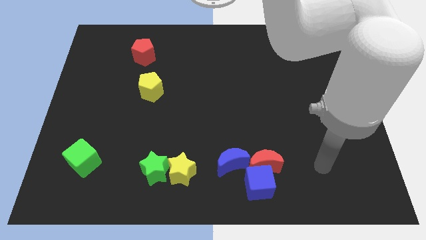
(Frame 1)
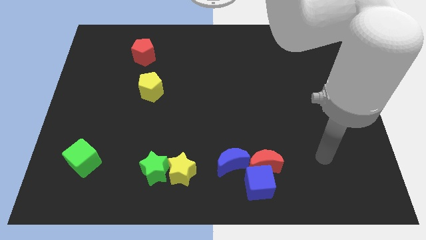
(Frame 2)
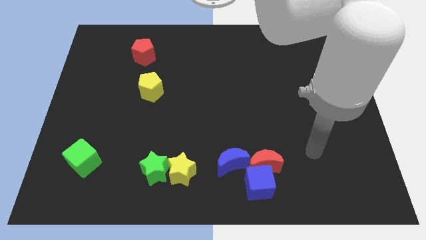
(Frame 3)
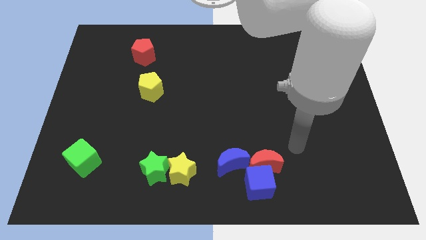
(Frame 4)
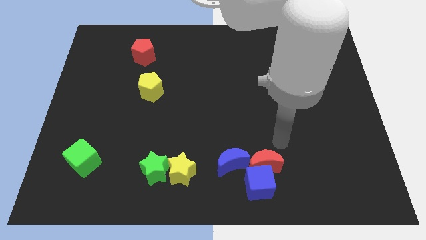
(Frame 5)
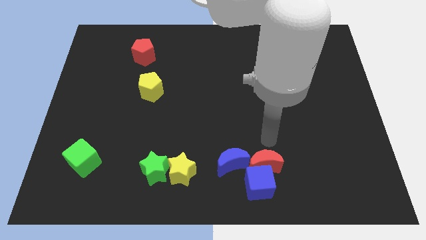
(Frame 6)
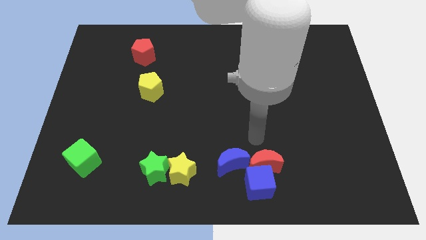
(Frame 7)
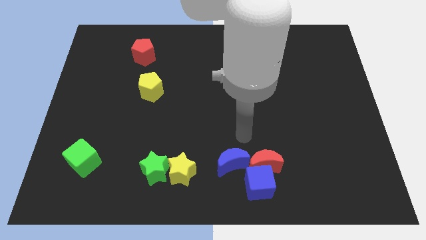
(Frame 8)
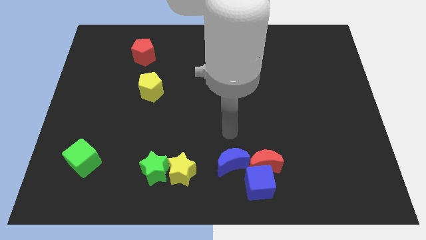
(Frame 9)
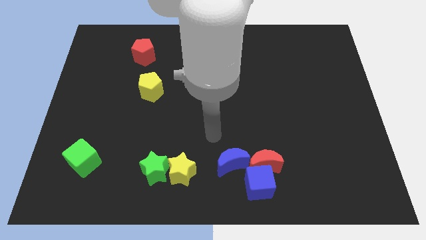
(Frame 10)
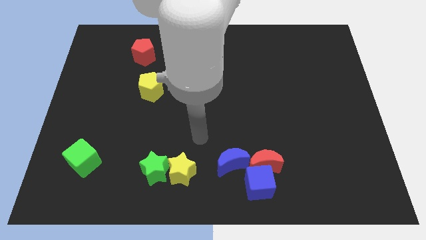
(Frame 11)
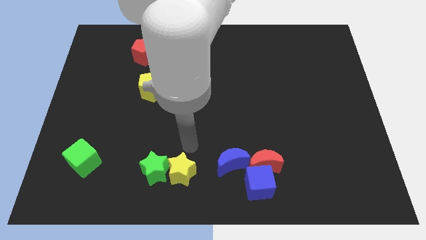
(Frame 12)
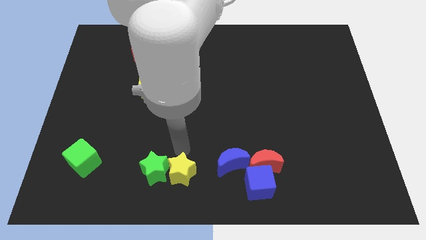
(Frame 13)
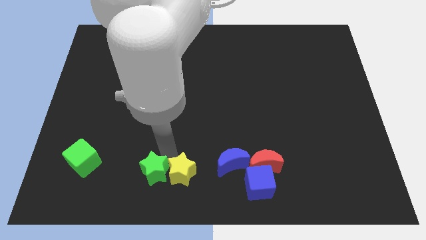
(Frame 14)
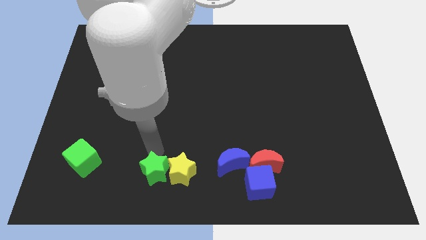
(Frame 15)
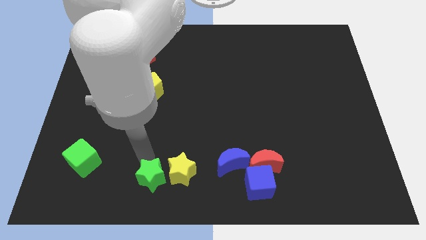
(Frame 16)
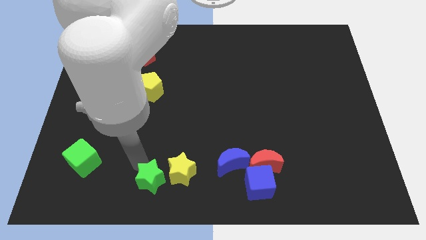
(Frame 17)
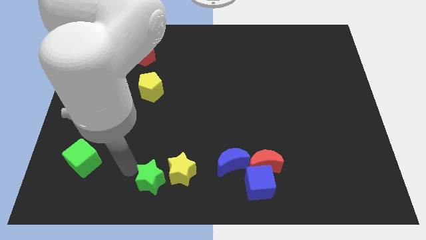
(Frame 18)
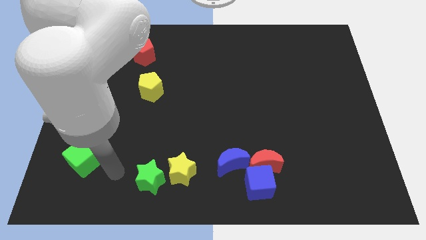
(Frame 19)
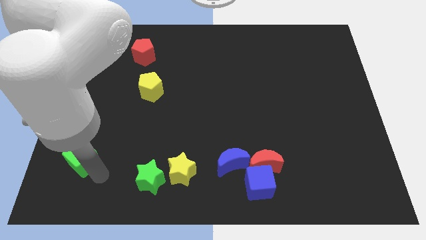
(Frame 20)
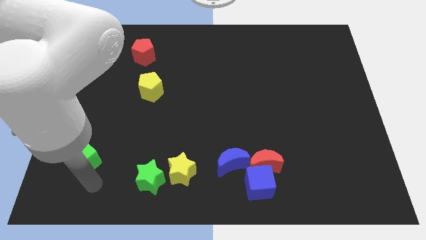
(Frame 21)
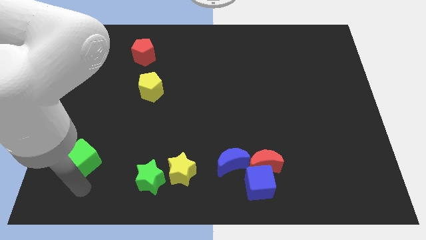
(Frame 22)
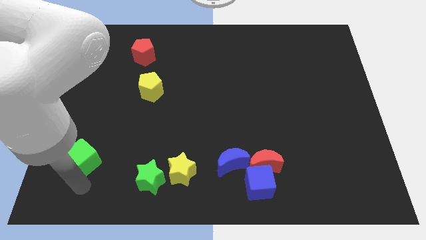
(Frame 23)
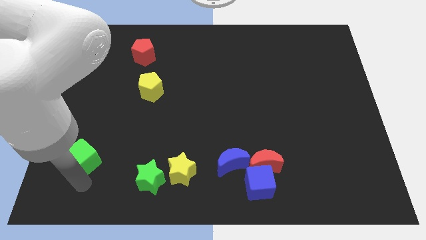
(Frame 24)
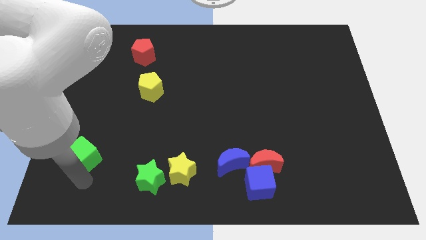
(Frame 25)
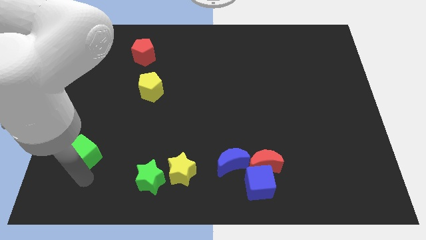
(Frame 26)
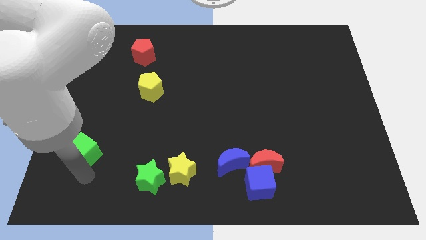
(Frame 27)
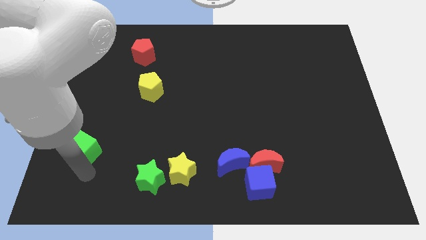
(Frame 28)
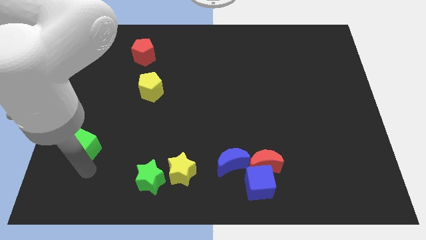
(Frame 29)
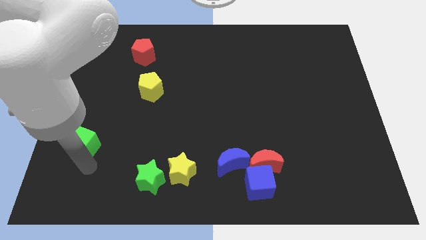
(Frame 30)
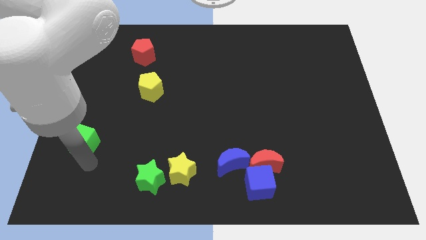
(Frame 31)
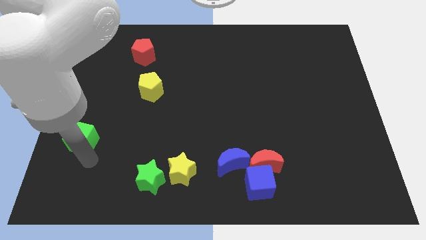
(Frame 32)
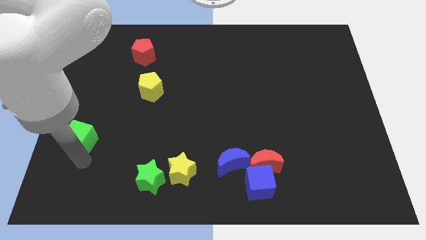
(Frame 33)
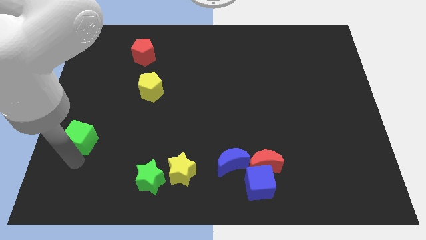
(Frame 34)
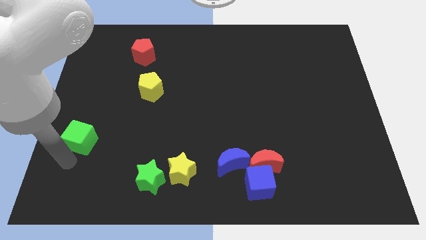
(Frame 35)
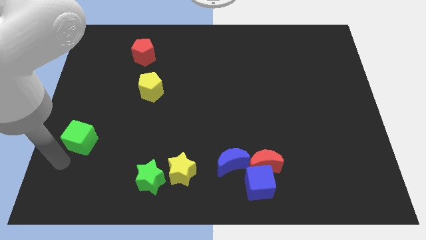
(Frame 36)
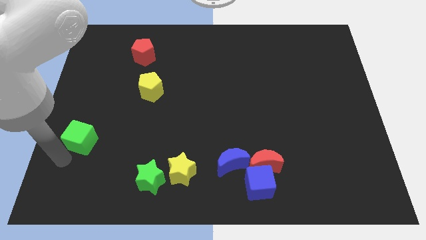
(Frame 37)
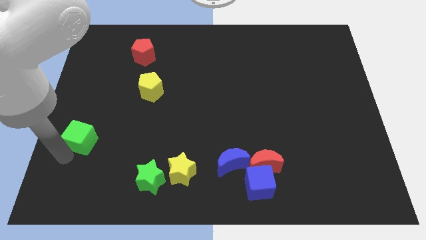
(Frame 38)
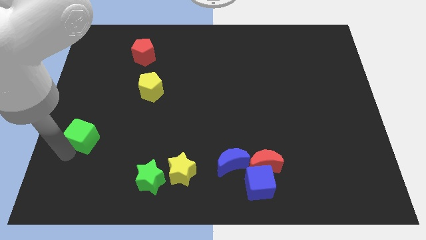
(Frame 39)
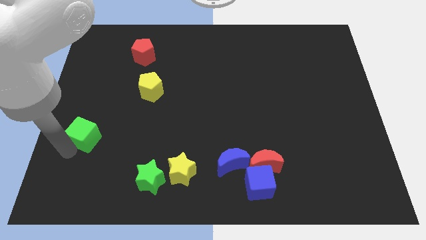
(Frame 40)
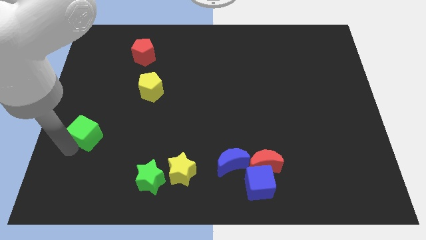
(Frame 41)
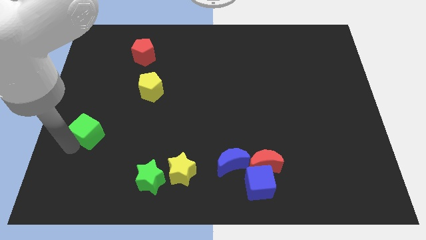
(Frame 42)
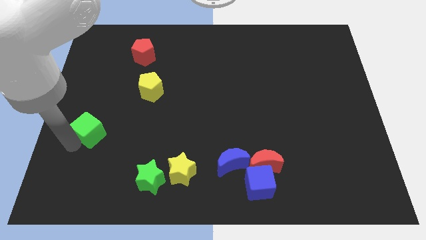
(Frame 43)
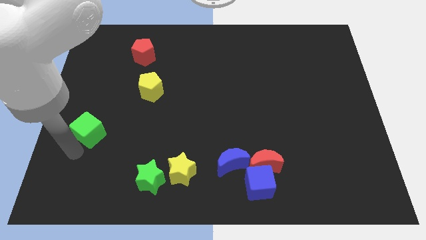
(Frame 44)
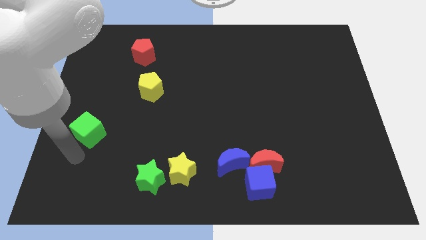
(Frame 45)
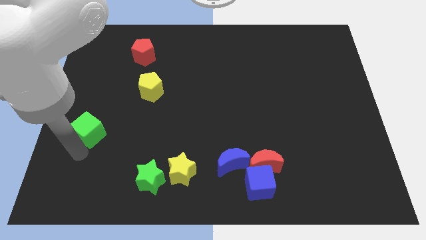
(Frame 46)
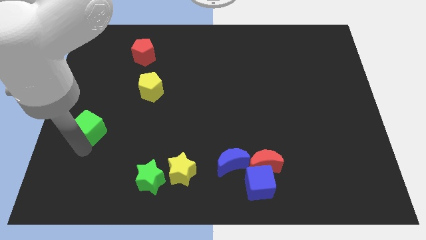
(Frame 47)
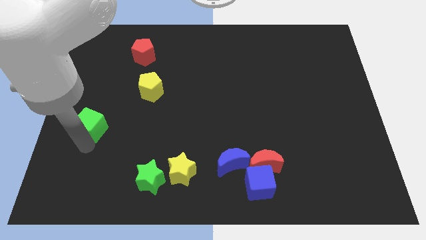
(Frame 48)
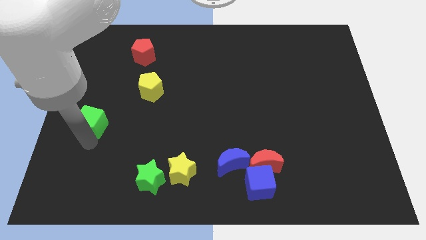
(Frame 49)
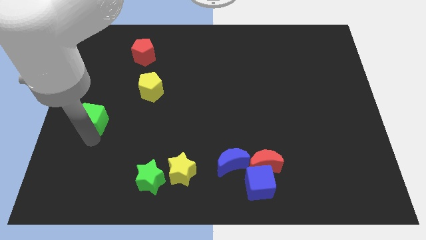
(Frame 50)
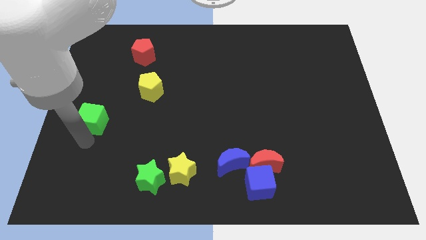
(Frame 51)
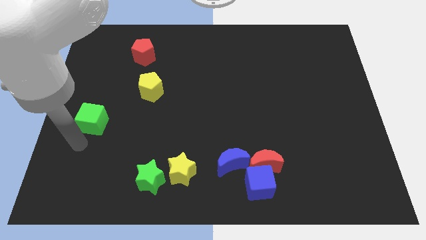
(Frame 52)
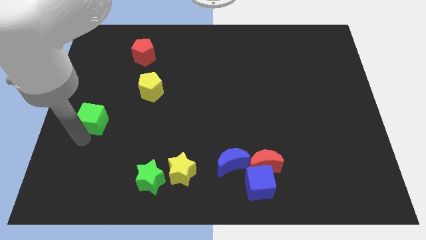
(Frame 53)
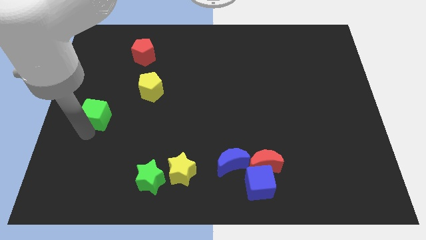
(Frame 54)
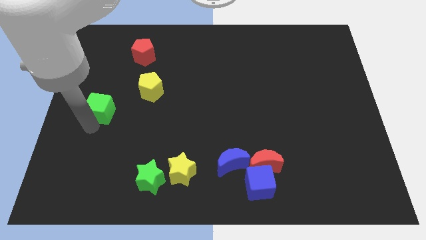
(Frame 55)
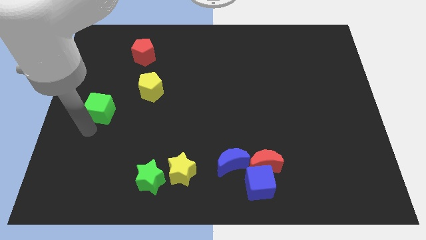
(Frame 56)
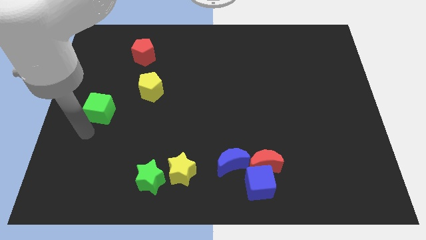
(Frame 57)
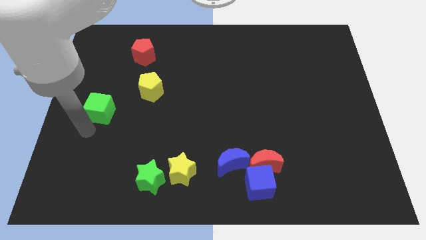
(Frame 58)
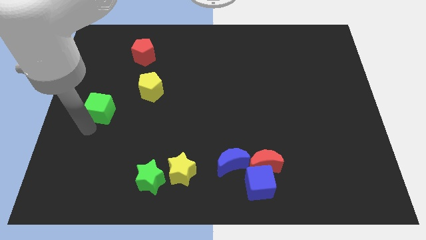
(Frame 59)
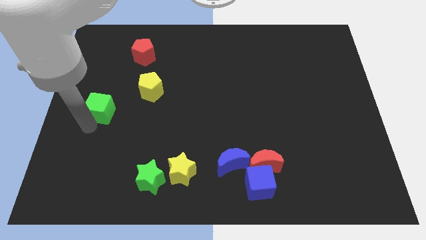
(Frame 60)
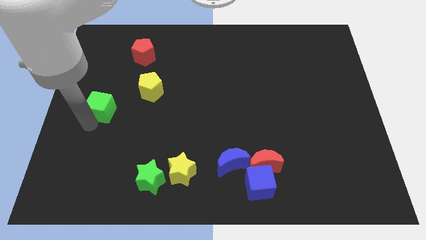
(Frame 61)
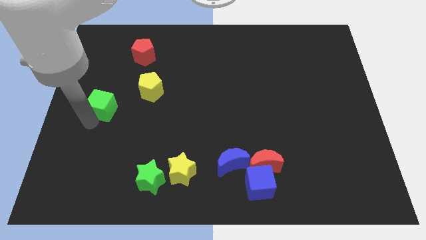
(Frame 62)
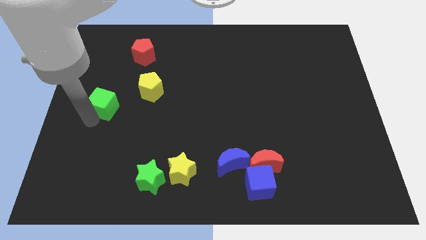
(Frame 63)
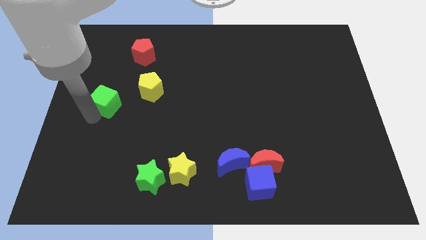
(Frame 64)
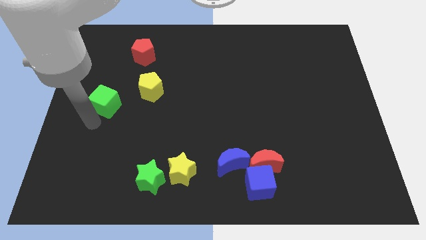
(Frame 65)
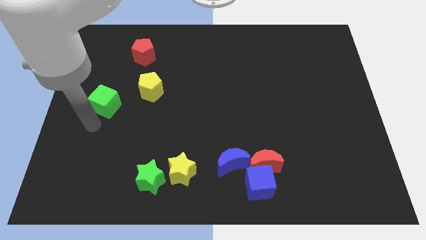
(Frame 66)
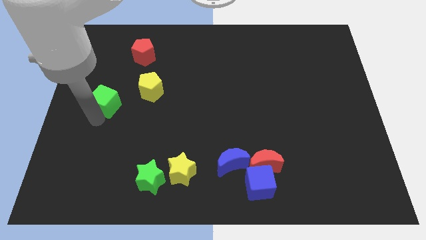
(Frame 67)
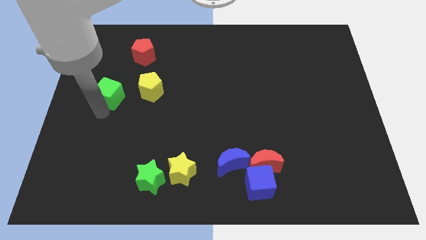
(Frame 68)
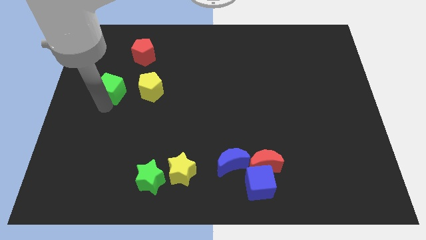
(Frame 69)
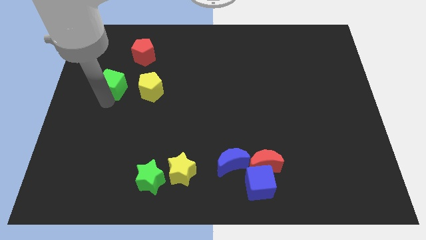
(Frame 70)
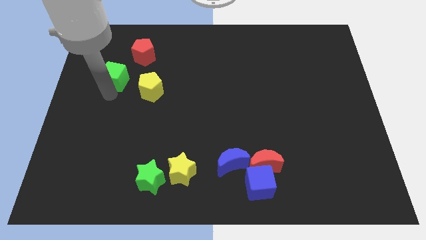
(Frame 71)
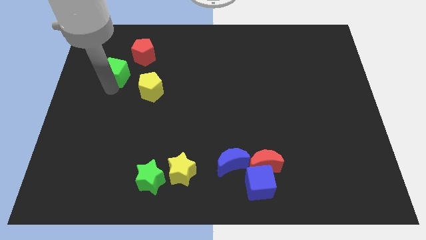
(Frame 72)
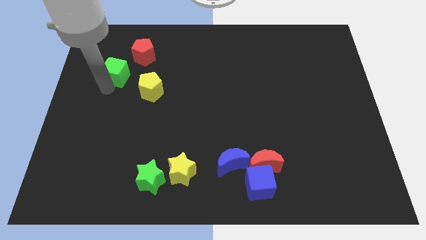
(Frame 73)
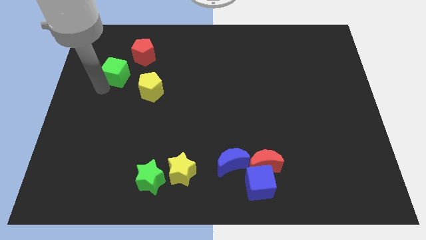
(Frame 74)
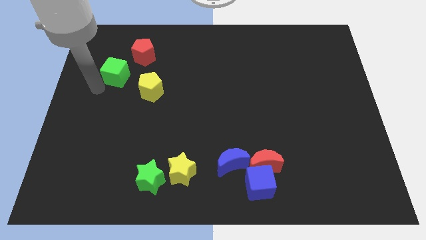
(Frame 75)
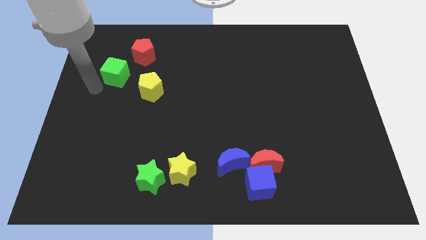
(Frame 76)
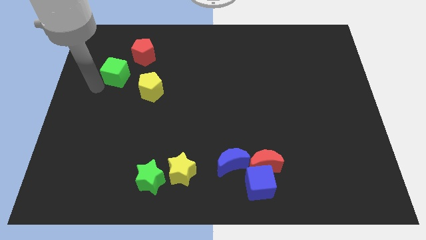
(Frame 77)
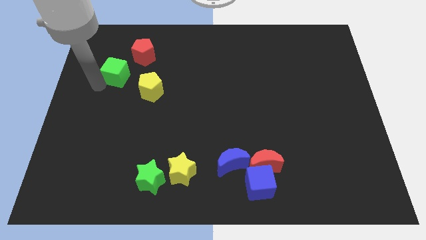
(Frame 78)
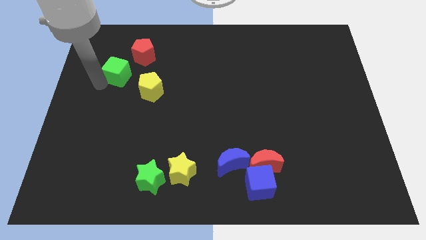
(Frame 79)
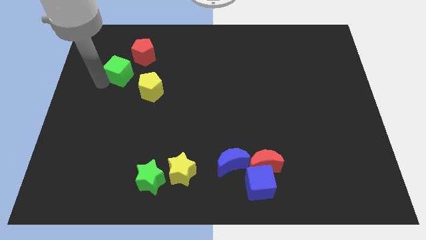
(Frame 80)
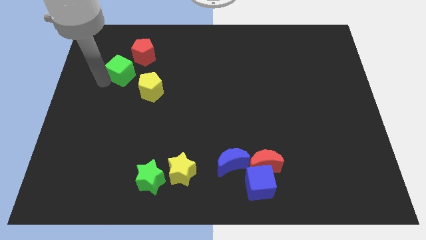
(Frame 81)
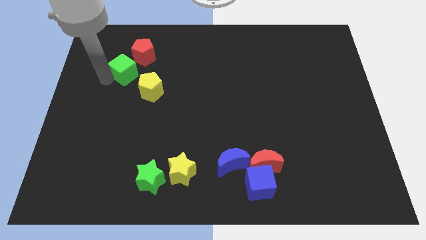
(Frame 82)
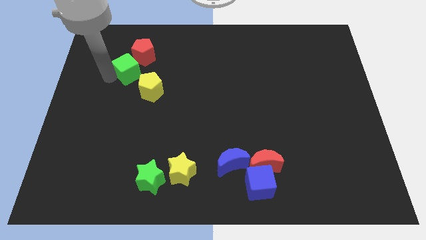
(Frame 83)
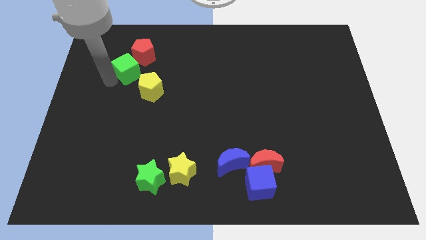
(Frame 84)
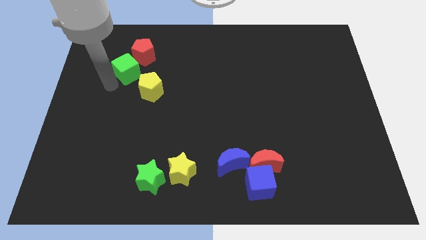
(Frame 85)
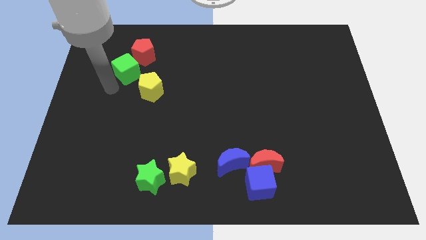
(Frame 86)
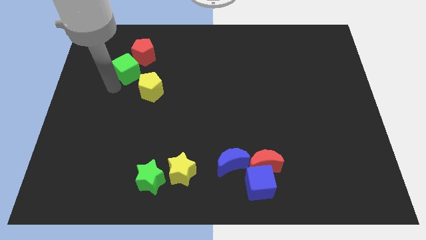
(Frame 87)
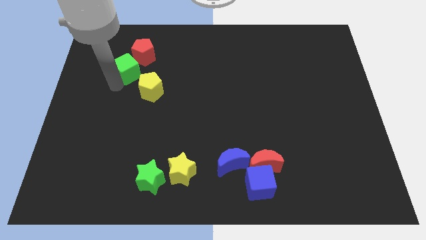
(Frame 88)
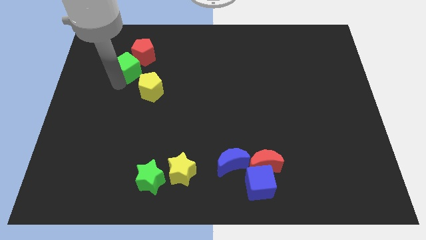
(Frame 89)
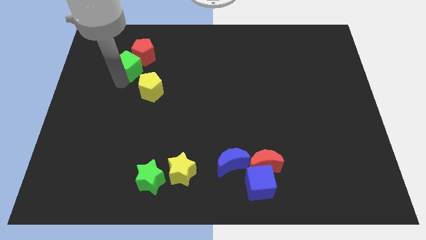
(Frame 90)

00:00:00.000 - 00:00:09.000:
put the green cube close to the red pentagon
